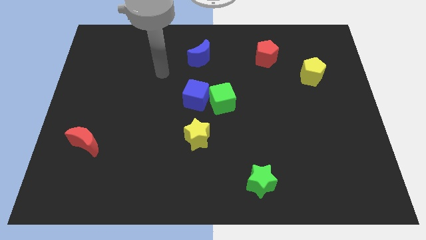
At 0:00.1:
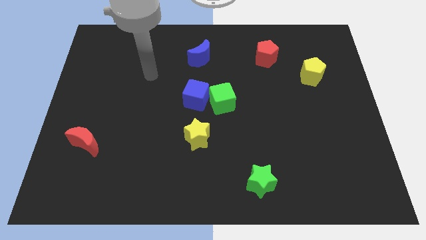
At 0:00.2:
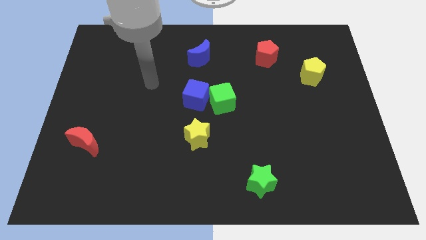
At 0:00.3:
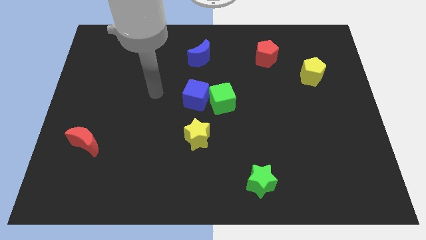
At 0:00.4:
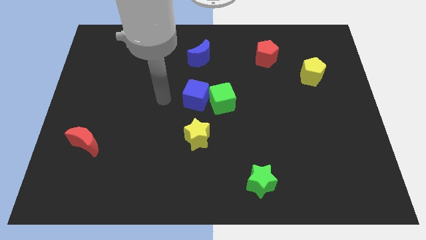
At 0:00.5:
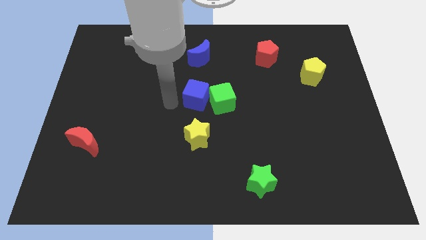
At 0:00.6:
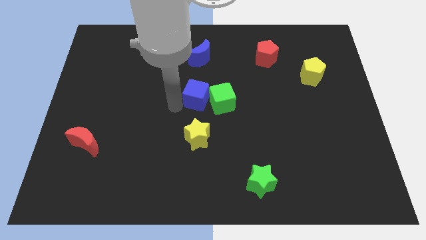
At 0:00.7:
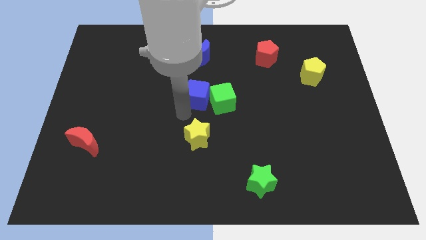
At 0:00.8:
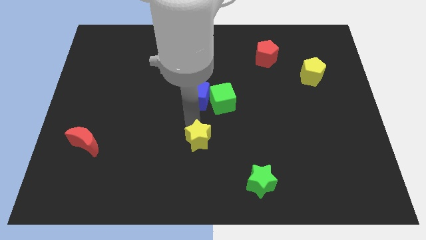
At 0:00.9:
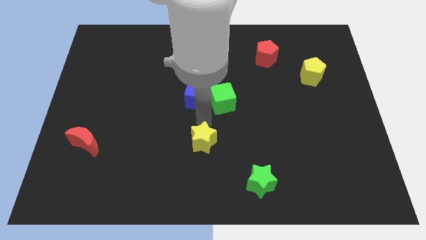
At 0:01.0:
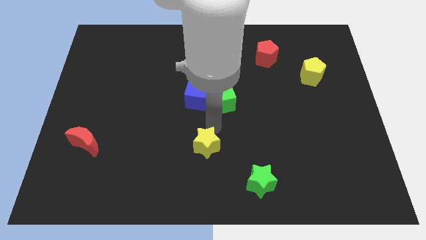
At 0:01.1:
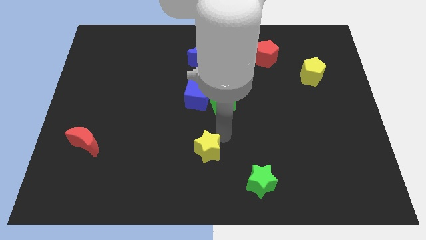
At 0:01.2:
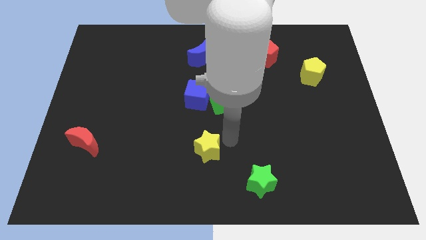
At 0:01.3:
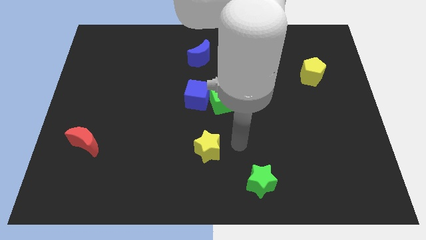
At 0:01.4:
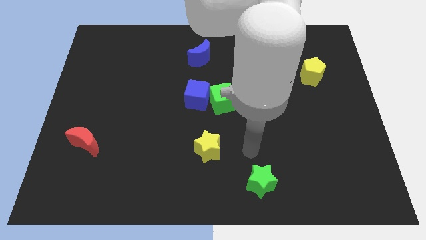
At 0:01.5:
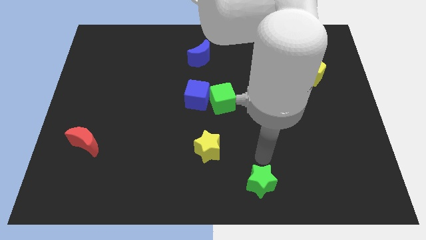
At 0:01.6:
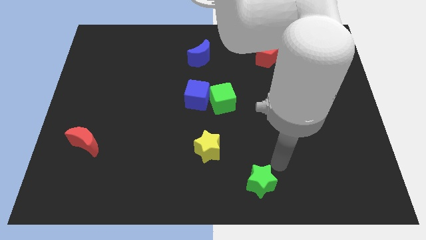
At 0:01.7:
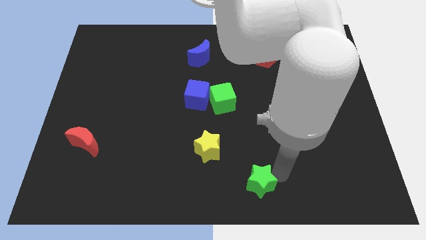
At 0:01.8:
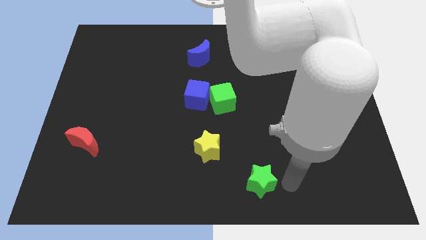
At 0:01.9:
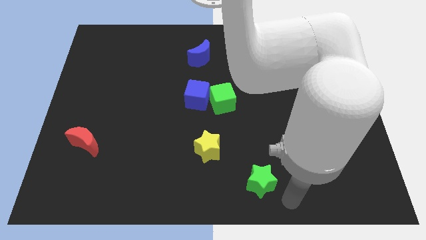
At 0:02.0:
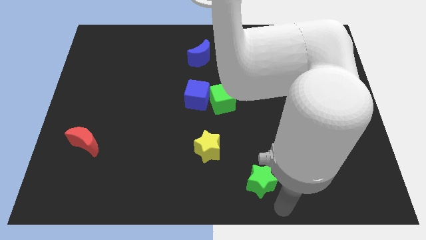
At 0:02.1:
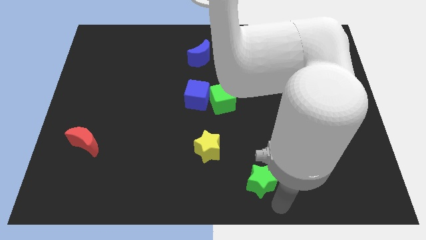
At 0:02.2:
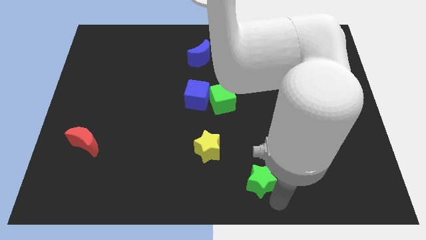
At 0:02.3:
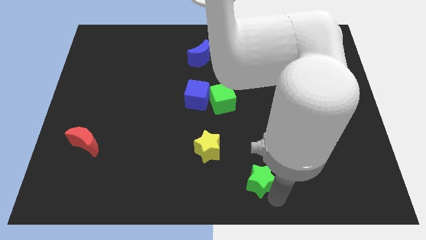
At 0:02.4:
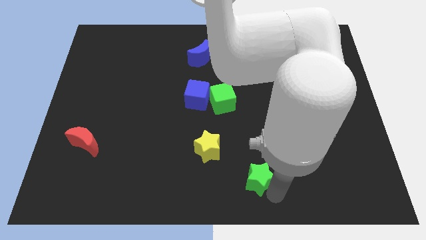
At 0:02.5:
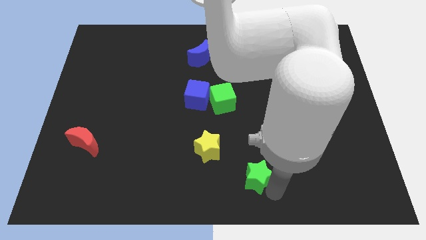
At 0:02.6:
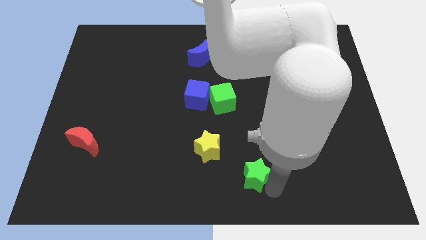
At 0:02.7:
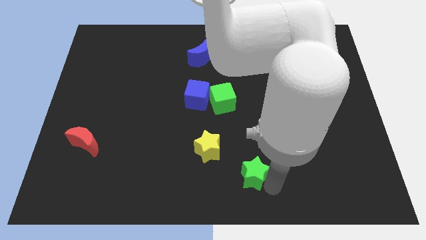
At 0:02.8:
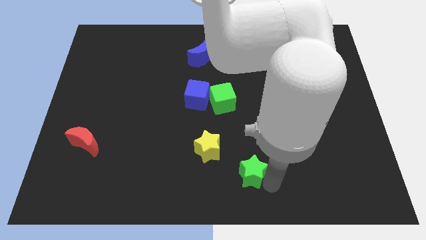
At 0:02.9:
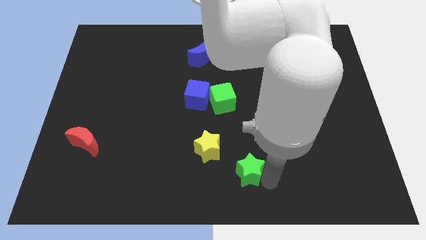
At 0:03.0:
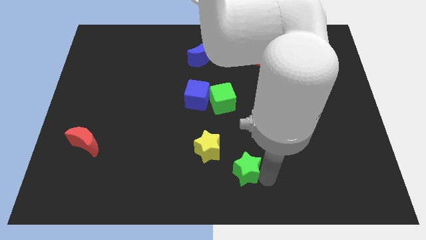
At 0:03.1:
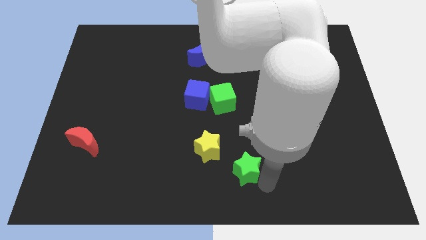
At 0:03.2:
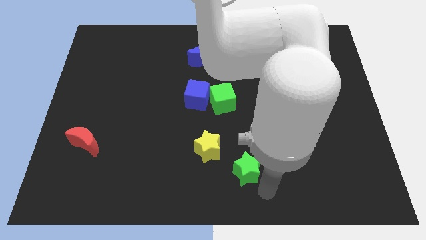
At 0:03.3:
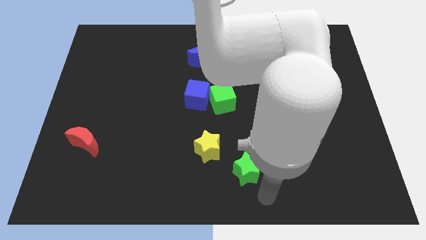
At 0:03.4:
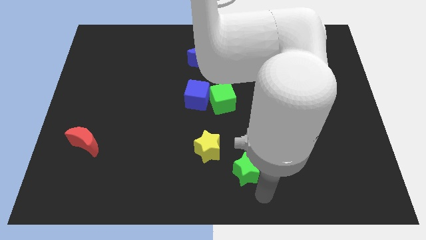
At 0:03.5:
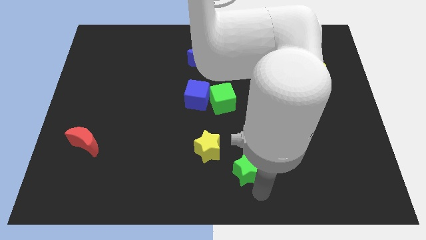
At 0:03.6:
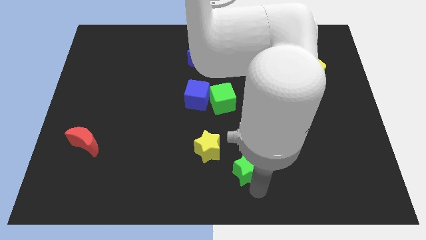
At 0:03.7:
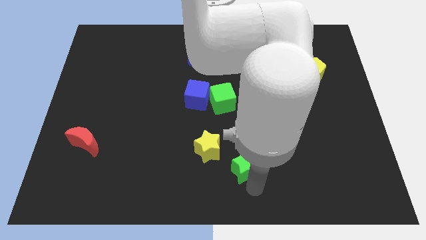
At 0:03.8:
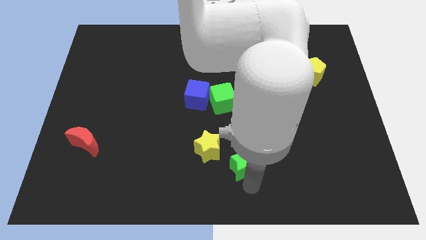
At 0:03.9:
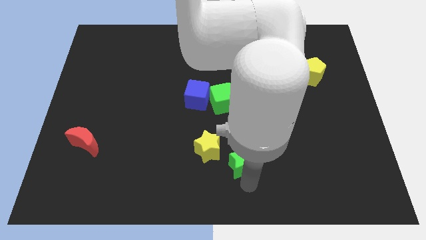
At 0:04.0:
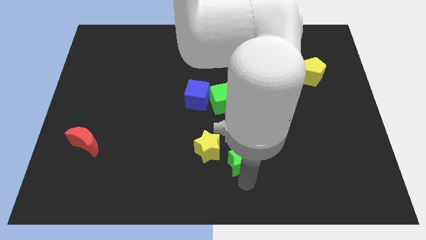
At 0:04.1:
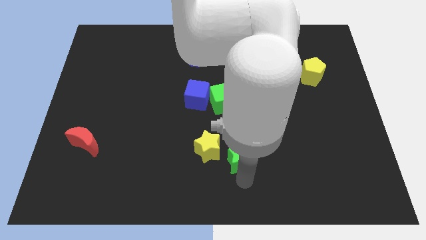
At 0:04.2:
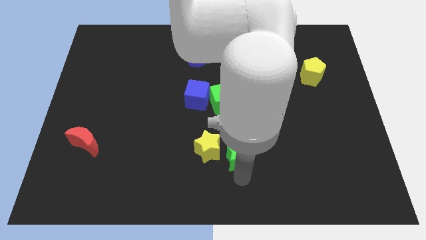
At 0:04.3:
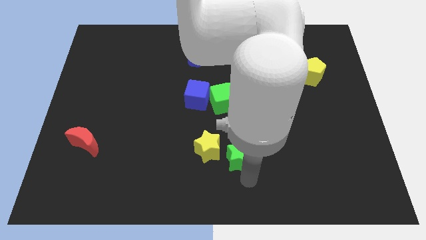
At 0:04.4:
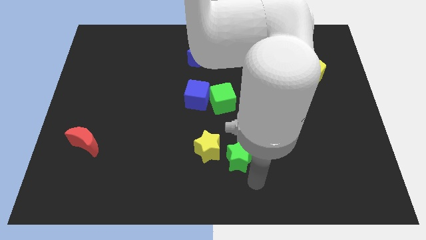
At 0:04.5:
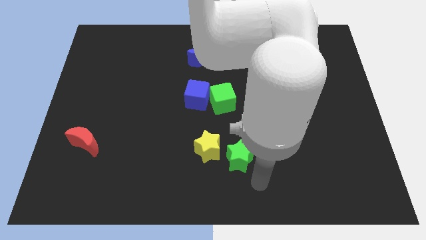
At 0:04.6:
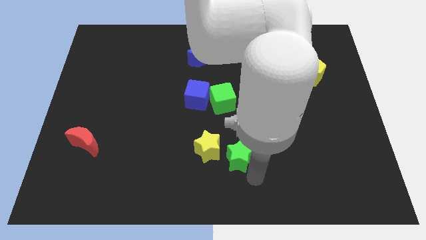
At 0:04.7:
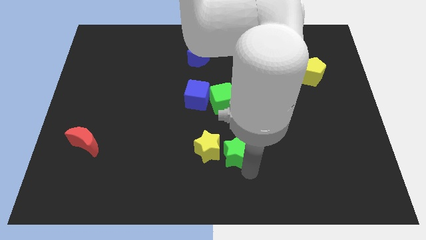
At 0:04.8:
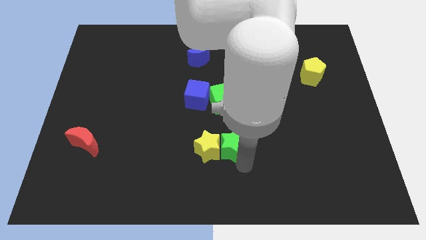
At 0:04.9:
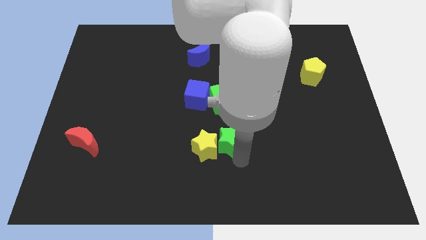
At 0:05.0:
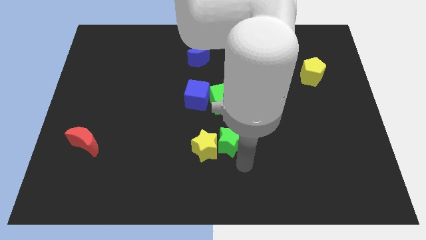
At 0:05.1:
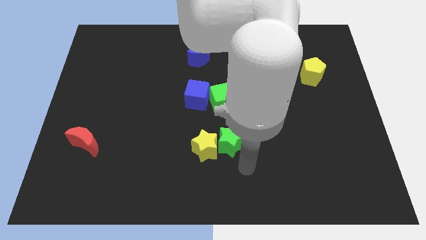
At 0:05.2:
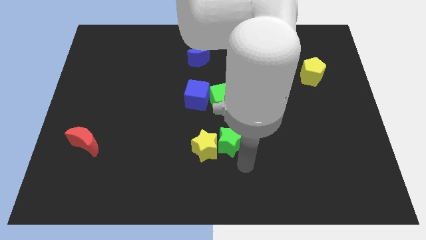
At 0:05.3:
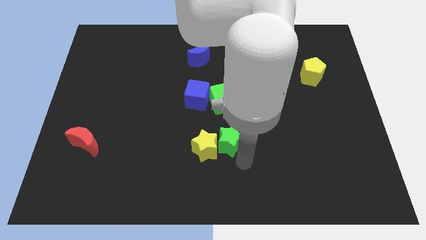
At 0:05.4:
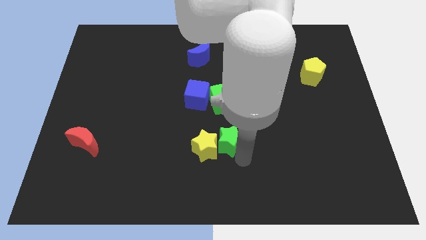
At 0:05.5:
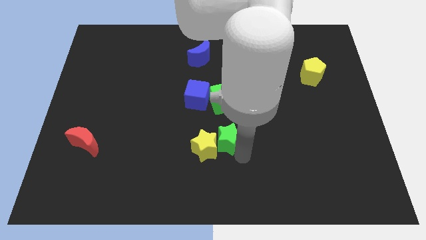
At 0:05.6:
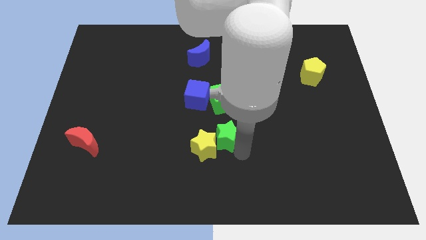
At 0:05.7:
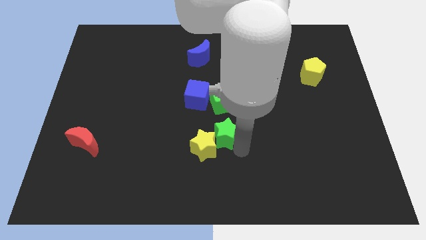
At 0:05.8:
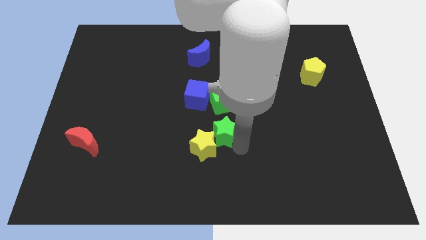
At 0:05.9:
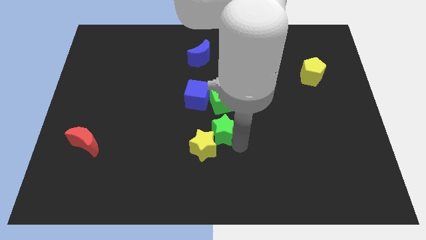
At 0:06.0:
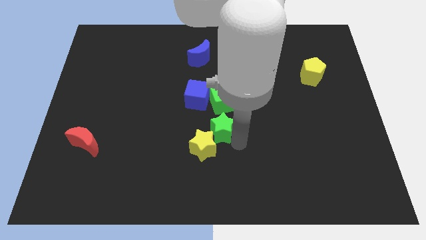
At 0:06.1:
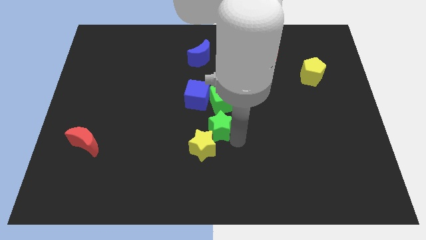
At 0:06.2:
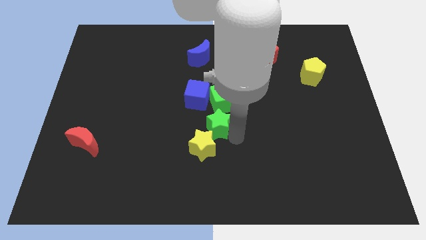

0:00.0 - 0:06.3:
slide the green star to the bottom left of the green cube
